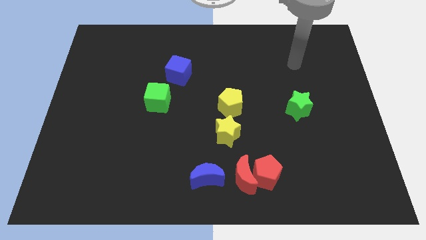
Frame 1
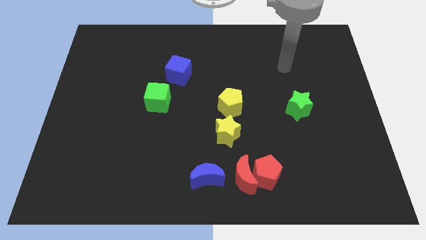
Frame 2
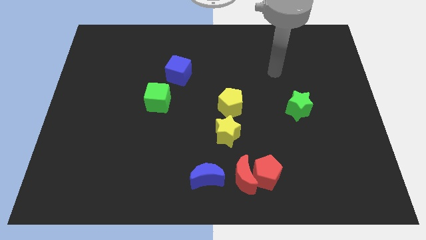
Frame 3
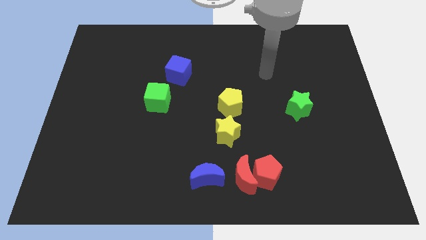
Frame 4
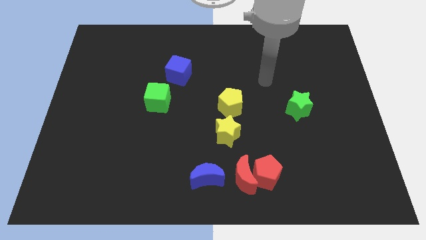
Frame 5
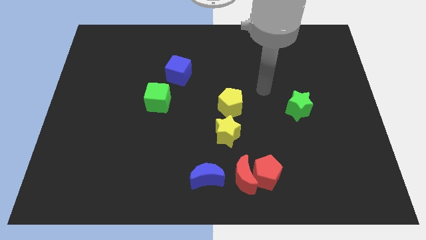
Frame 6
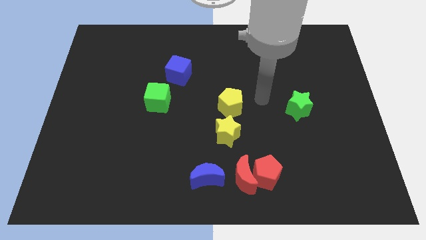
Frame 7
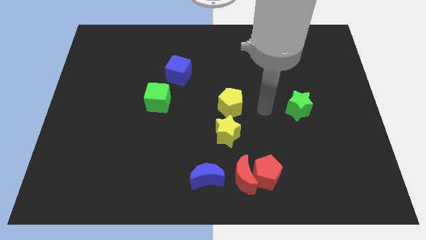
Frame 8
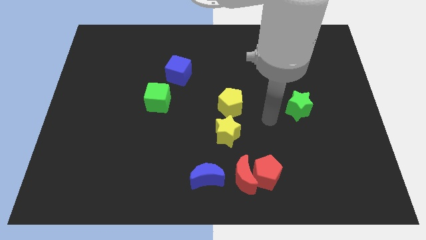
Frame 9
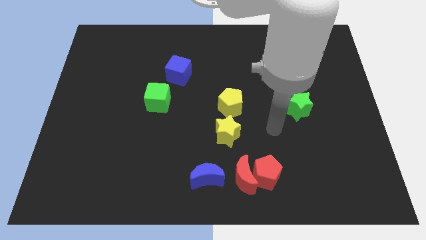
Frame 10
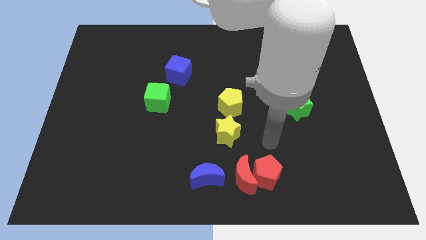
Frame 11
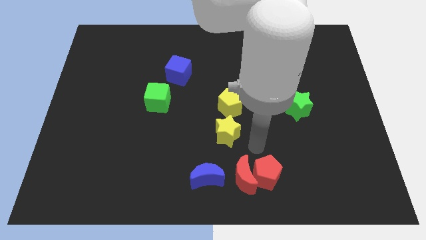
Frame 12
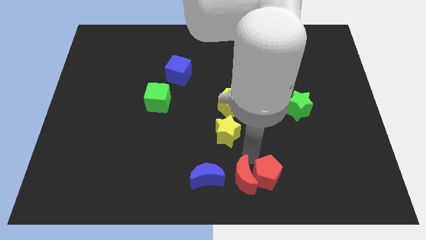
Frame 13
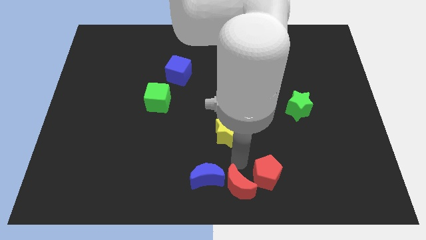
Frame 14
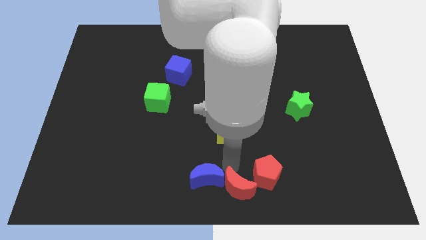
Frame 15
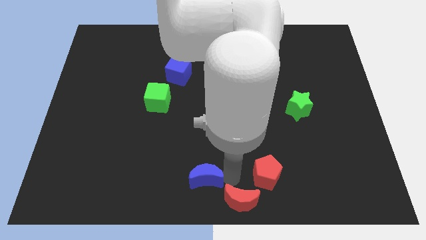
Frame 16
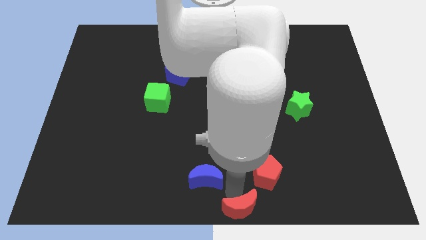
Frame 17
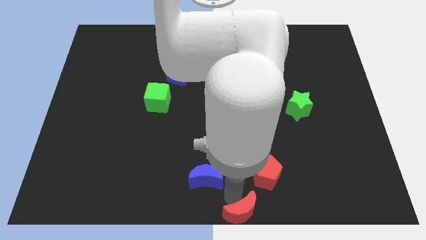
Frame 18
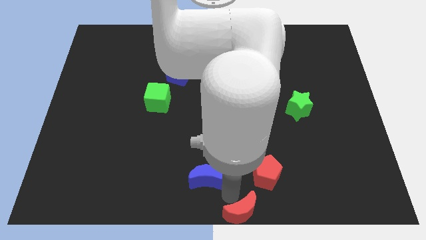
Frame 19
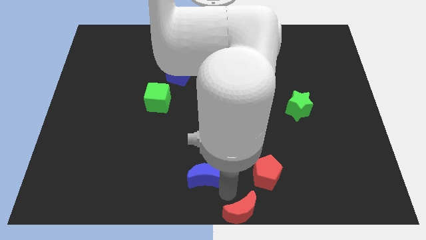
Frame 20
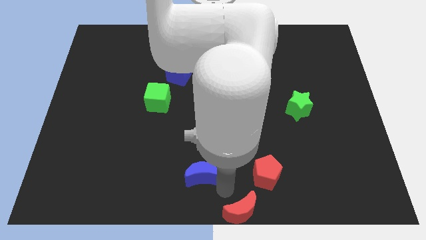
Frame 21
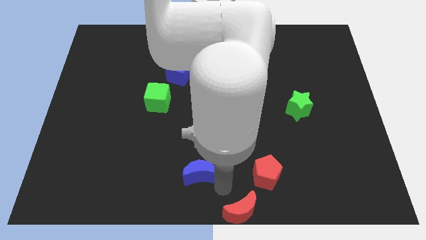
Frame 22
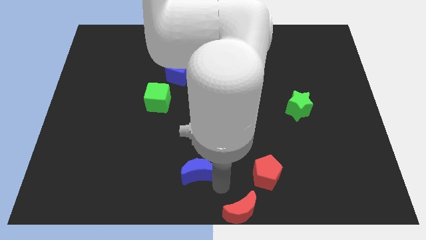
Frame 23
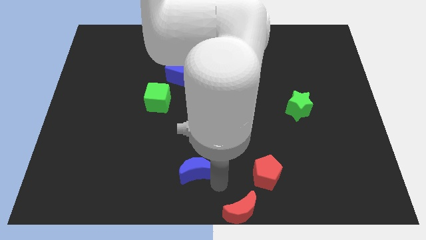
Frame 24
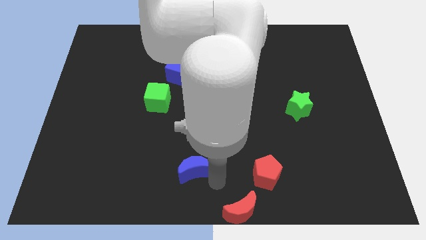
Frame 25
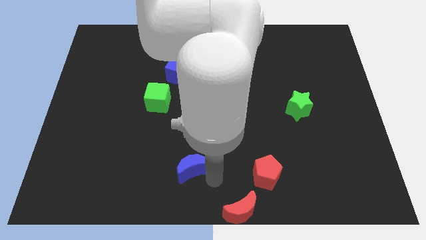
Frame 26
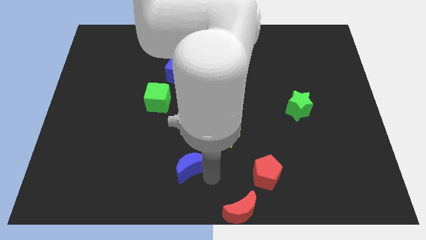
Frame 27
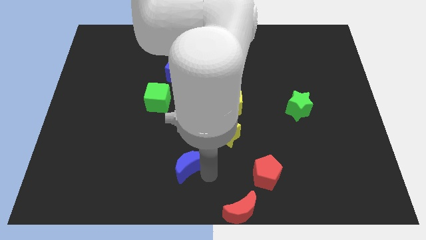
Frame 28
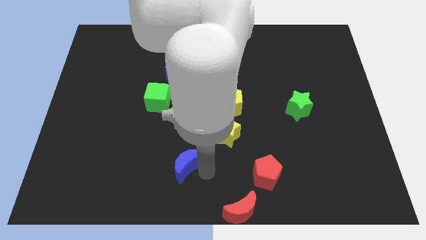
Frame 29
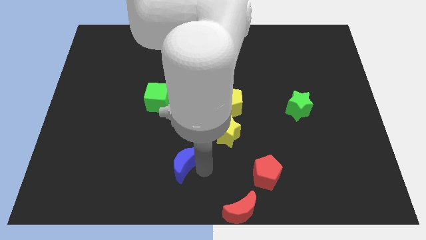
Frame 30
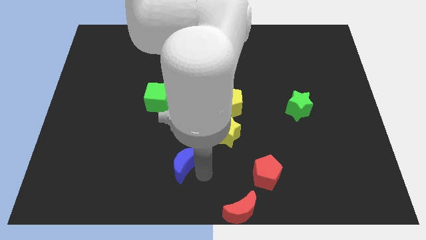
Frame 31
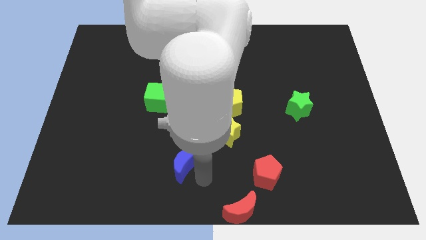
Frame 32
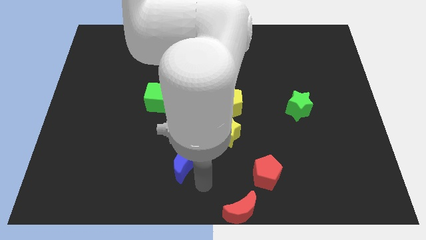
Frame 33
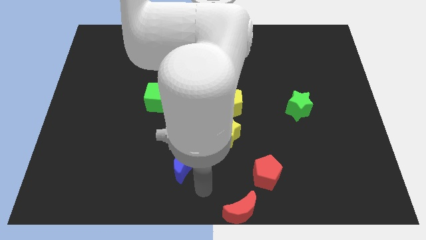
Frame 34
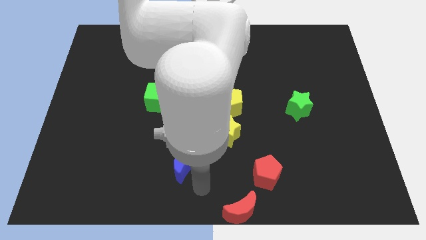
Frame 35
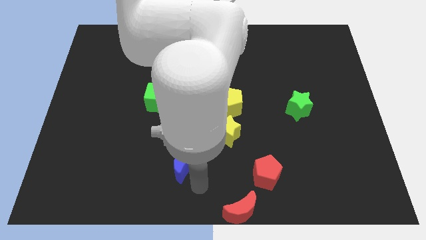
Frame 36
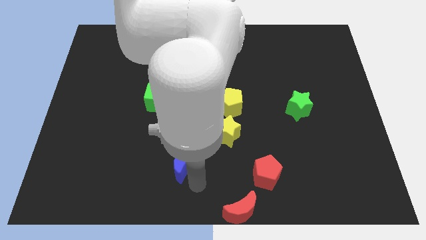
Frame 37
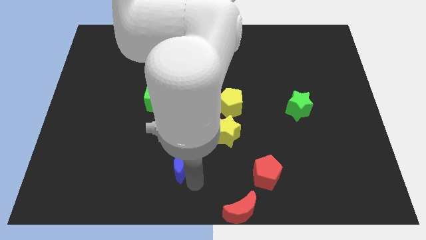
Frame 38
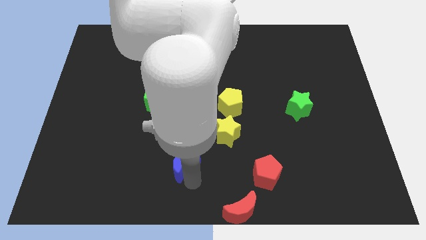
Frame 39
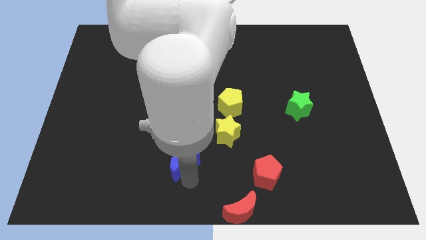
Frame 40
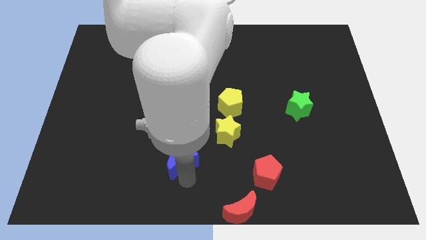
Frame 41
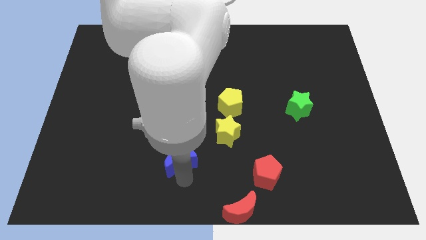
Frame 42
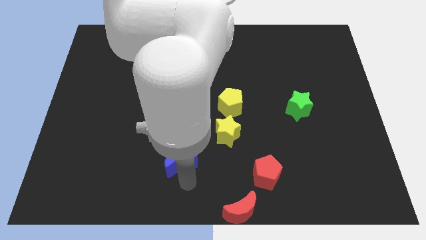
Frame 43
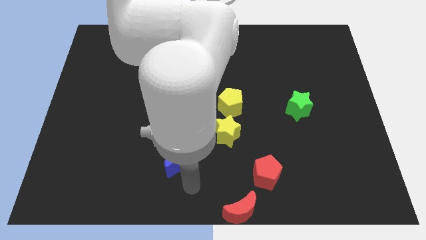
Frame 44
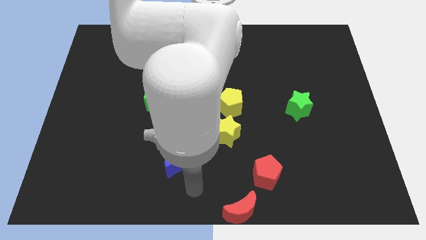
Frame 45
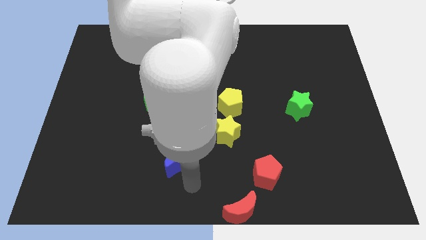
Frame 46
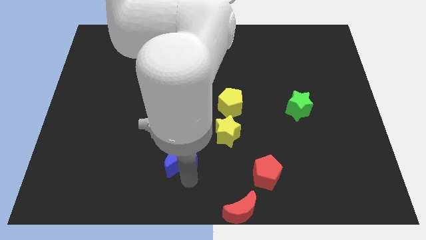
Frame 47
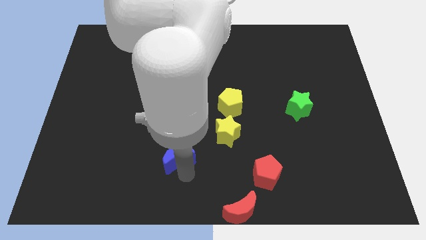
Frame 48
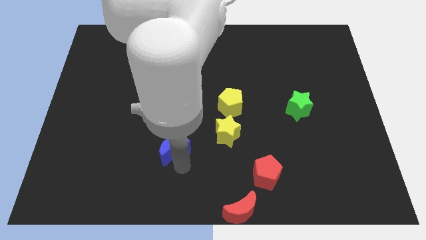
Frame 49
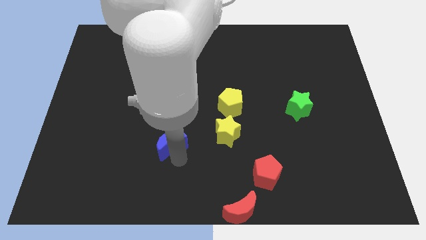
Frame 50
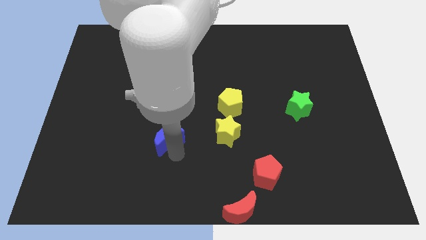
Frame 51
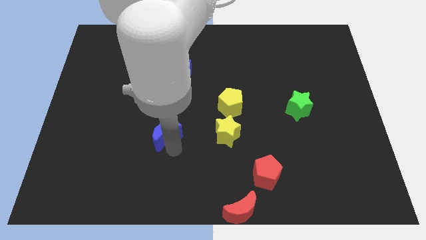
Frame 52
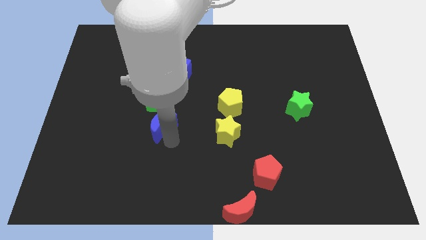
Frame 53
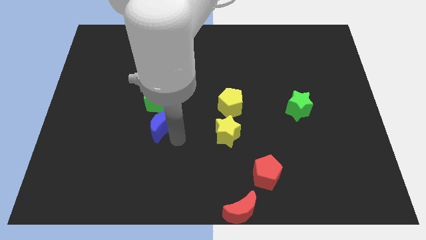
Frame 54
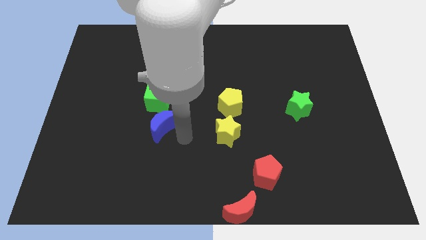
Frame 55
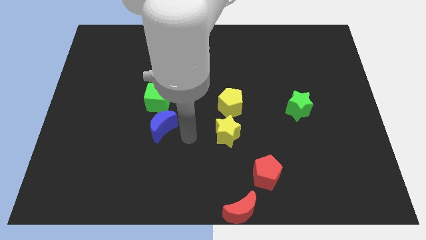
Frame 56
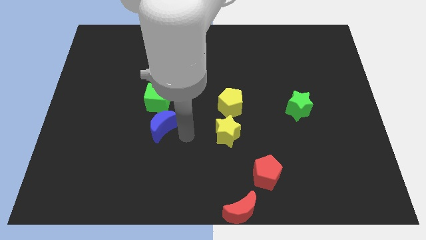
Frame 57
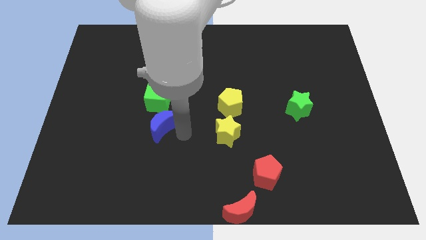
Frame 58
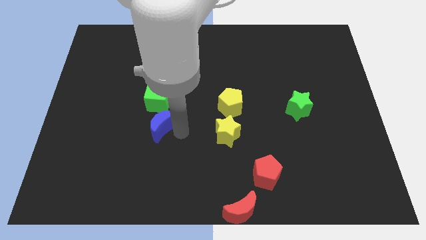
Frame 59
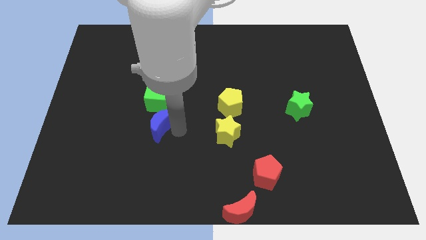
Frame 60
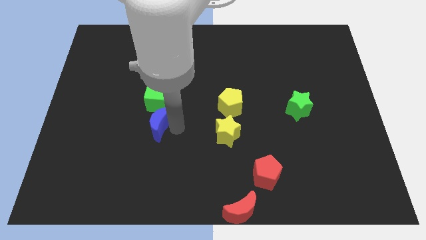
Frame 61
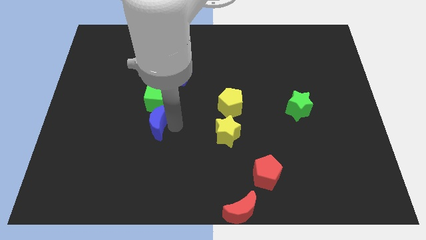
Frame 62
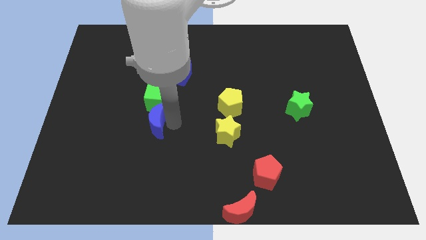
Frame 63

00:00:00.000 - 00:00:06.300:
put the blue moon to the bottom left side of the green cube

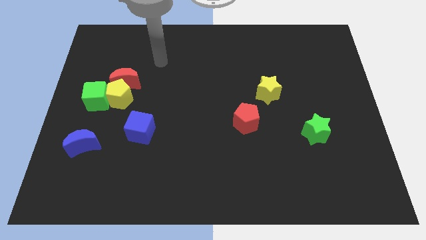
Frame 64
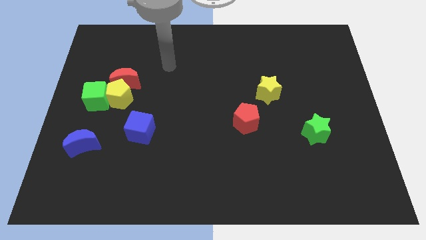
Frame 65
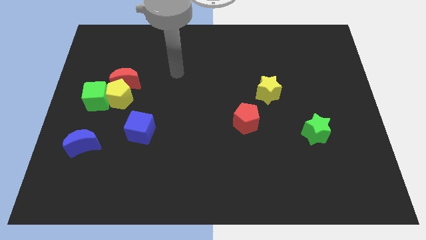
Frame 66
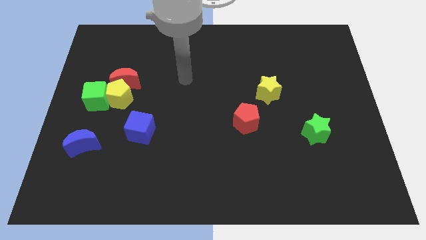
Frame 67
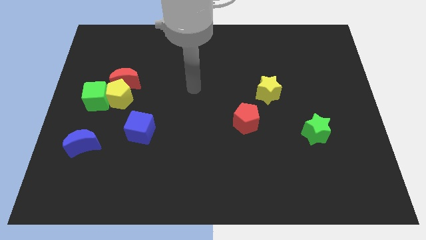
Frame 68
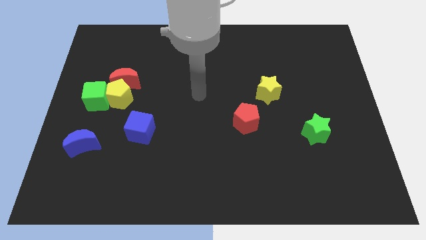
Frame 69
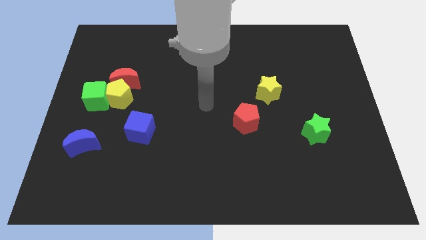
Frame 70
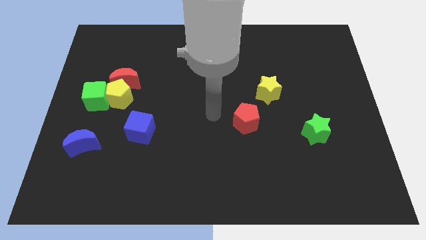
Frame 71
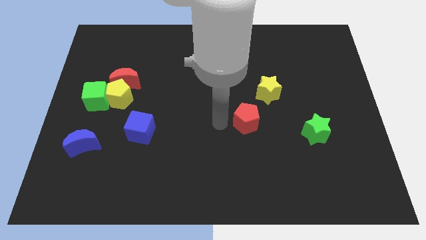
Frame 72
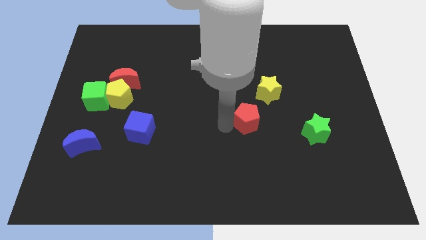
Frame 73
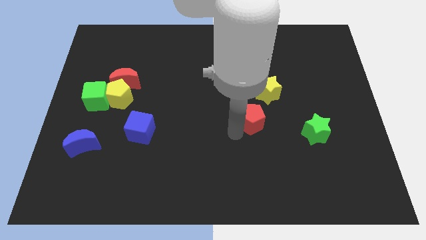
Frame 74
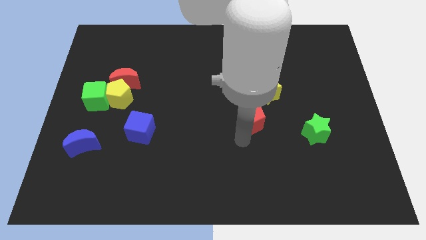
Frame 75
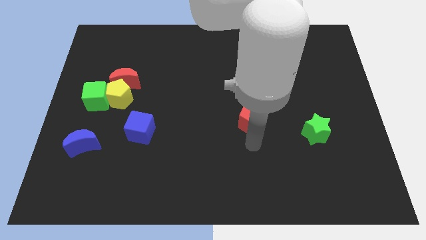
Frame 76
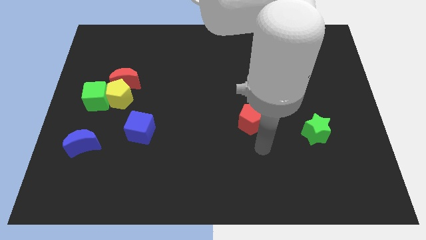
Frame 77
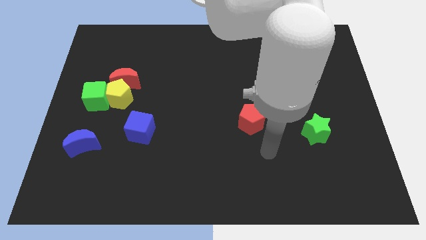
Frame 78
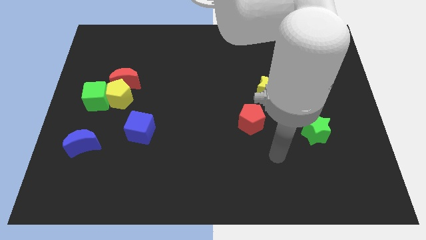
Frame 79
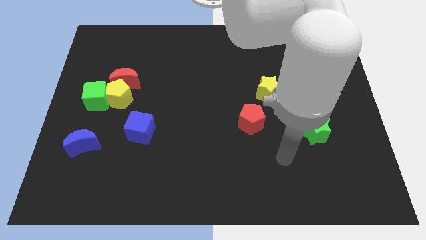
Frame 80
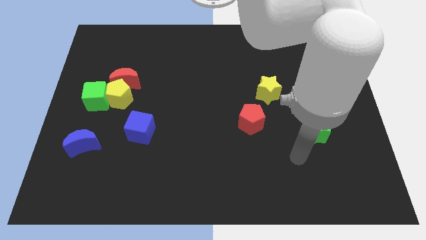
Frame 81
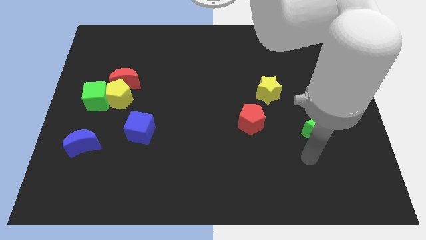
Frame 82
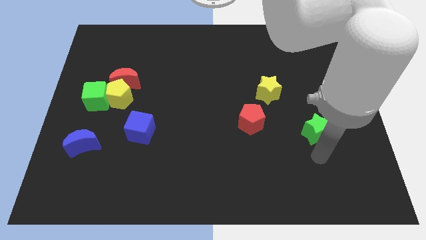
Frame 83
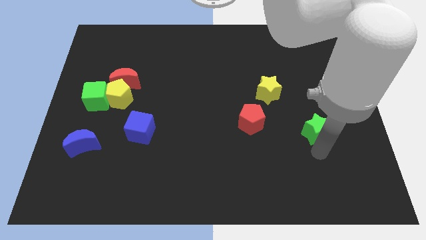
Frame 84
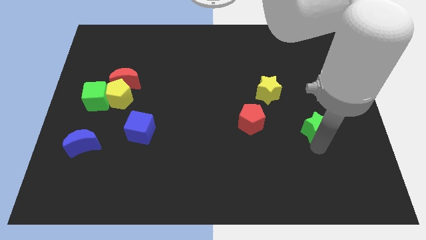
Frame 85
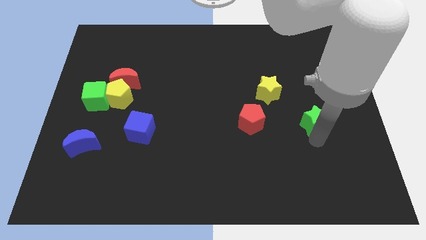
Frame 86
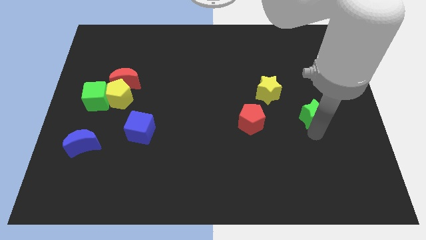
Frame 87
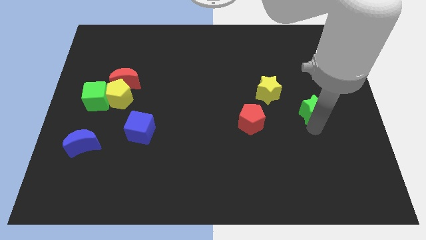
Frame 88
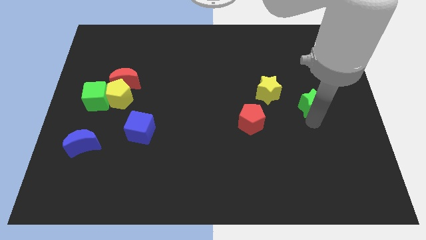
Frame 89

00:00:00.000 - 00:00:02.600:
put the green star to the right of the yellow star
